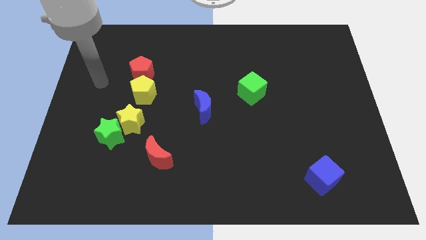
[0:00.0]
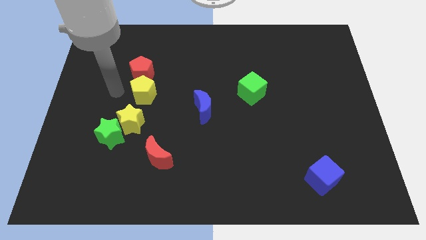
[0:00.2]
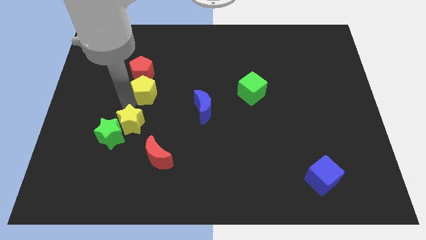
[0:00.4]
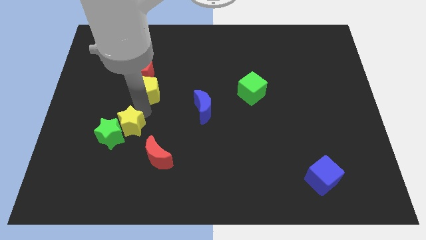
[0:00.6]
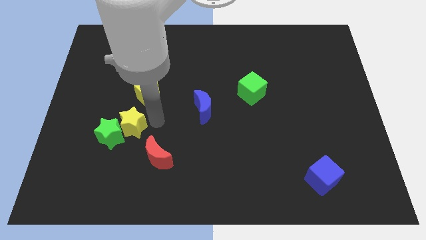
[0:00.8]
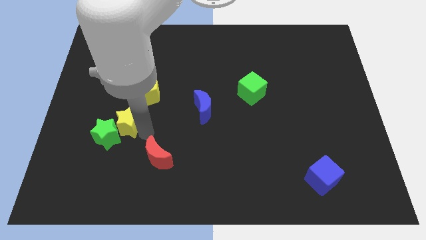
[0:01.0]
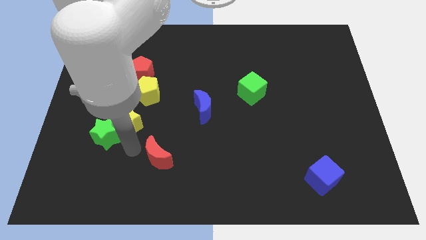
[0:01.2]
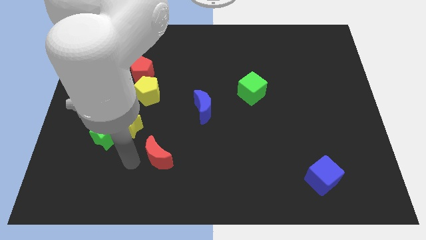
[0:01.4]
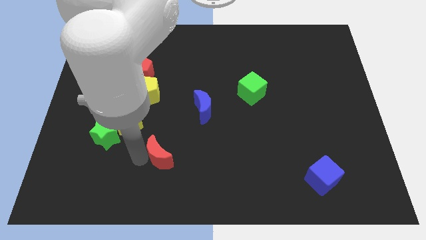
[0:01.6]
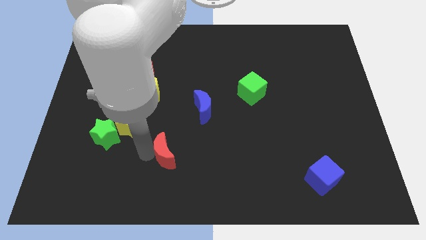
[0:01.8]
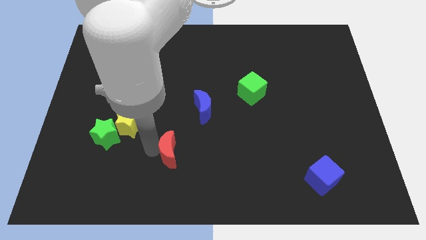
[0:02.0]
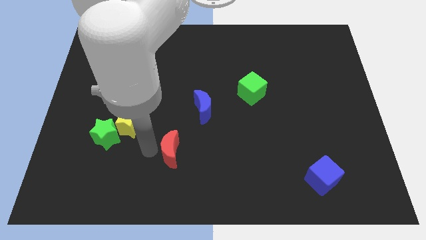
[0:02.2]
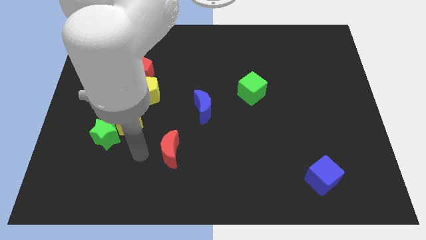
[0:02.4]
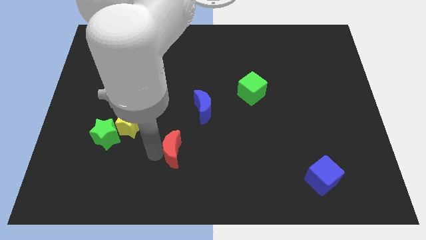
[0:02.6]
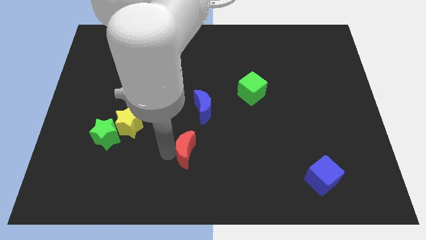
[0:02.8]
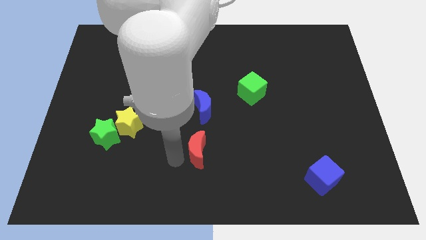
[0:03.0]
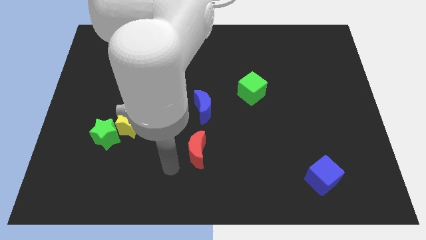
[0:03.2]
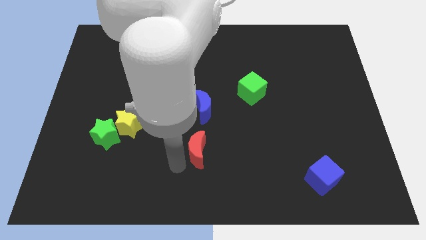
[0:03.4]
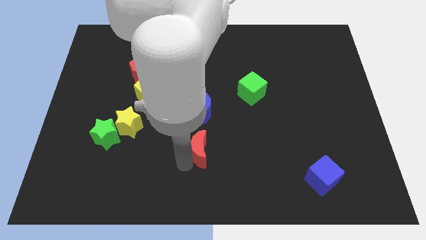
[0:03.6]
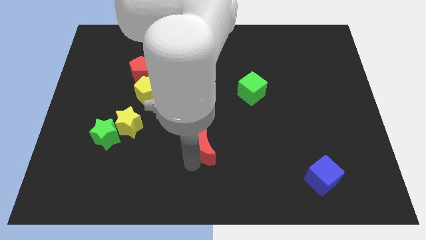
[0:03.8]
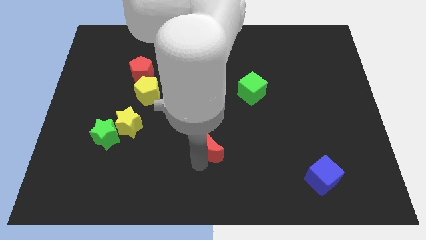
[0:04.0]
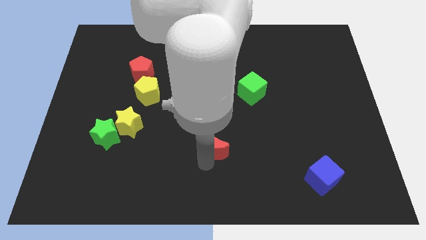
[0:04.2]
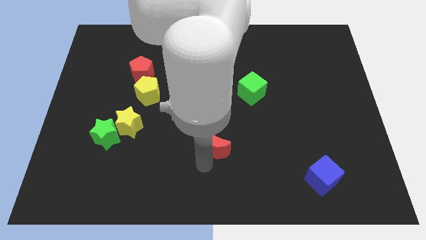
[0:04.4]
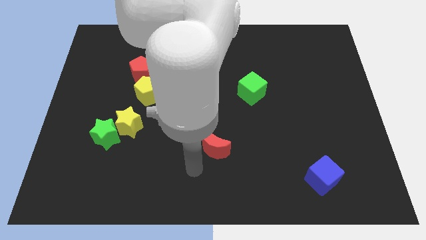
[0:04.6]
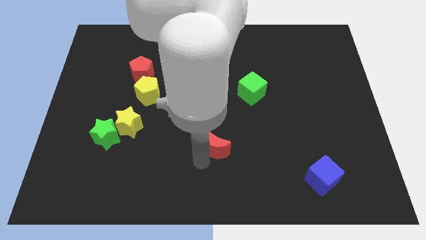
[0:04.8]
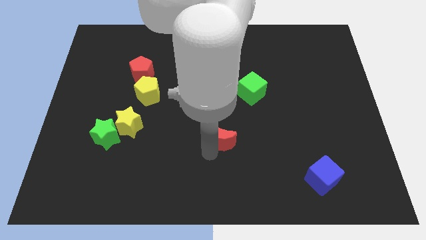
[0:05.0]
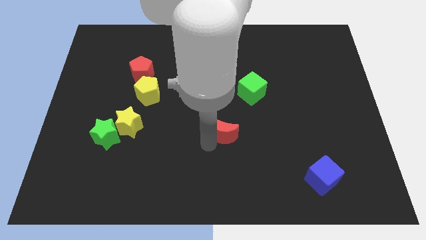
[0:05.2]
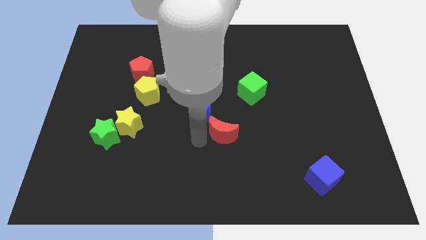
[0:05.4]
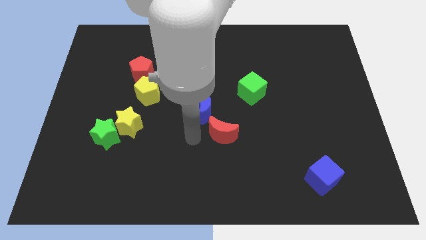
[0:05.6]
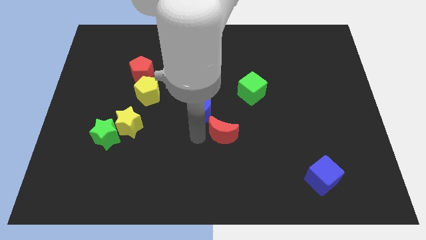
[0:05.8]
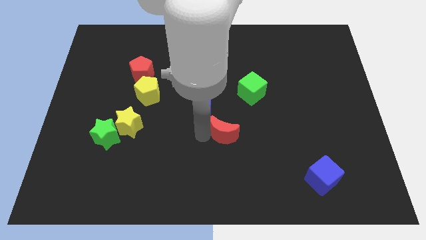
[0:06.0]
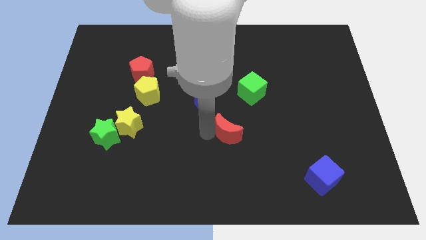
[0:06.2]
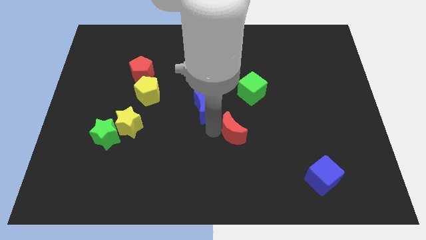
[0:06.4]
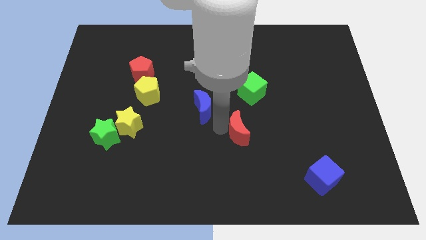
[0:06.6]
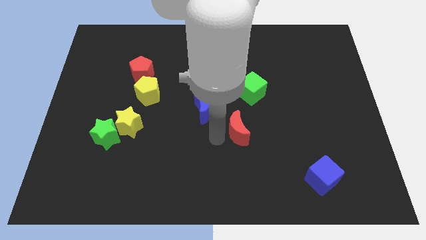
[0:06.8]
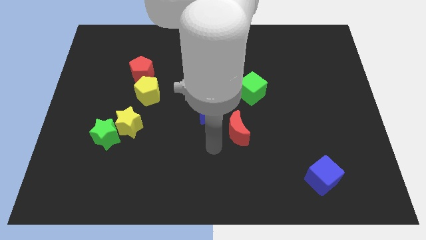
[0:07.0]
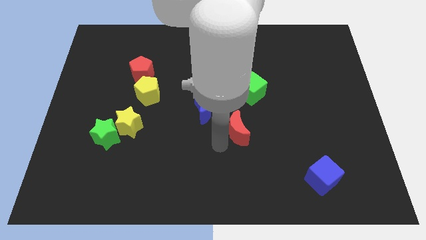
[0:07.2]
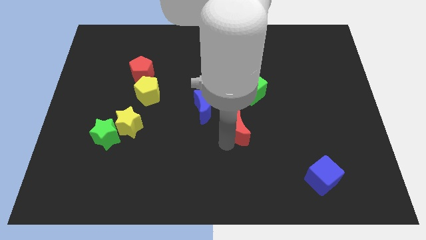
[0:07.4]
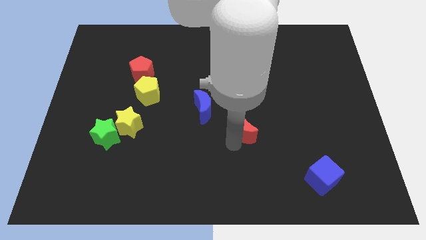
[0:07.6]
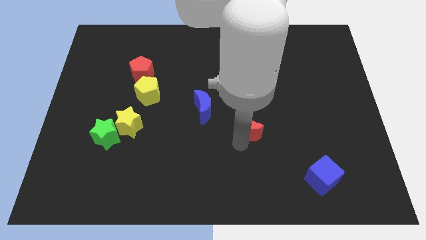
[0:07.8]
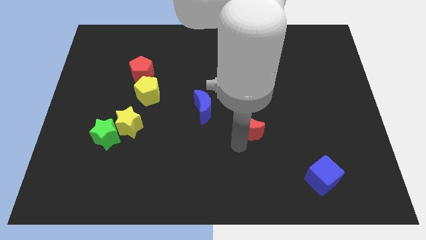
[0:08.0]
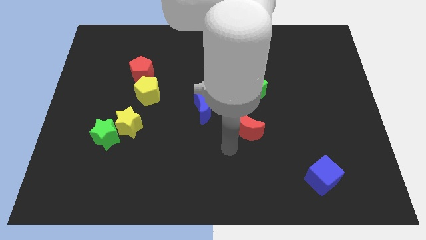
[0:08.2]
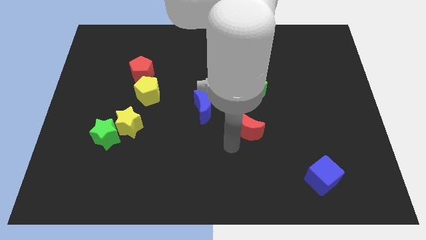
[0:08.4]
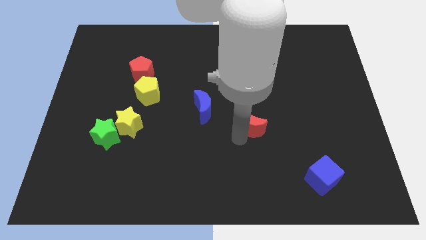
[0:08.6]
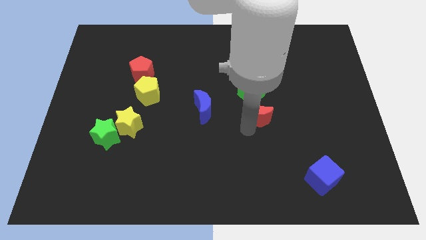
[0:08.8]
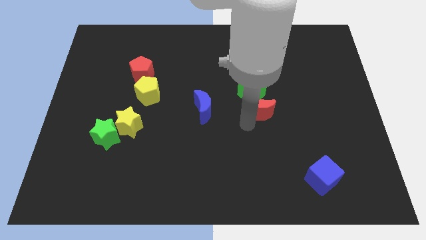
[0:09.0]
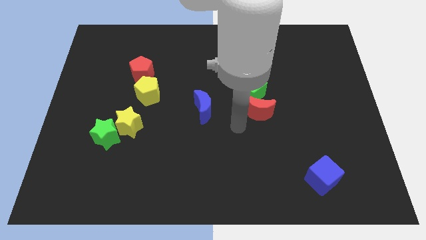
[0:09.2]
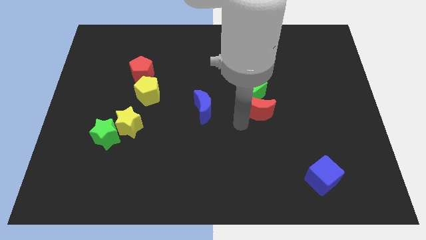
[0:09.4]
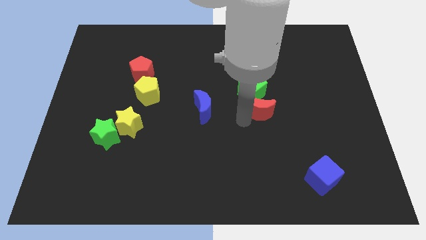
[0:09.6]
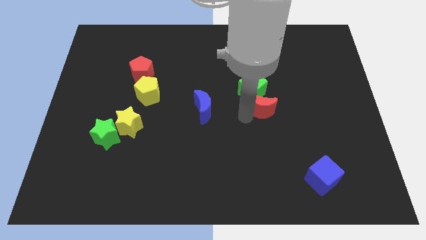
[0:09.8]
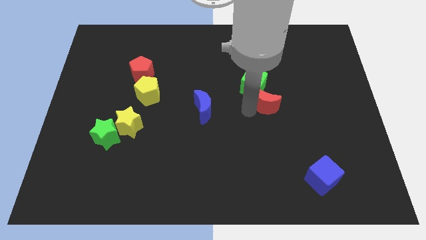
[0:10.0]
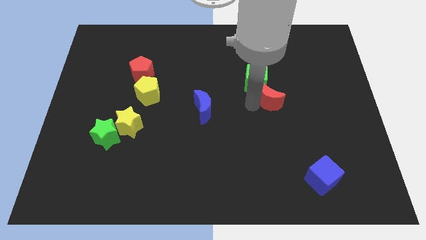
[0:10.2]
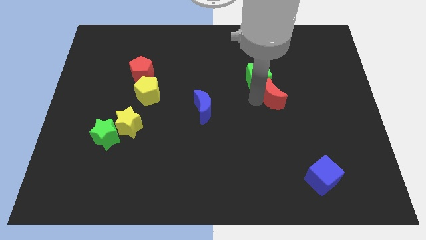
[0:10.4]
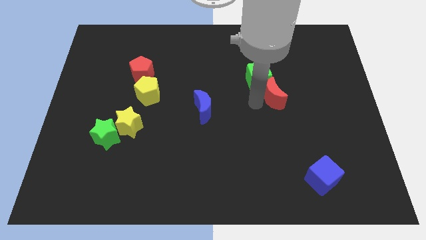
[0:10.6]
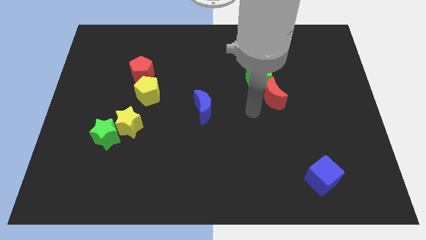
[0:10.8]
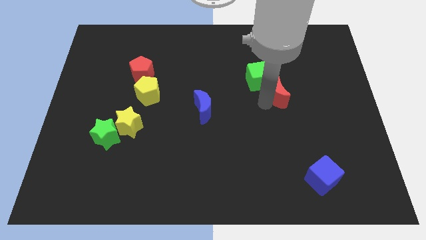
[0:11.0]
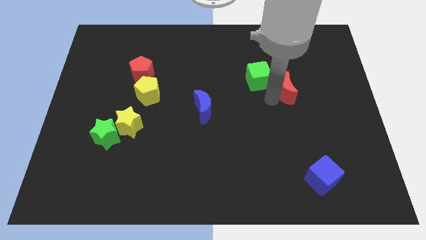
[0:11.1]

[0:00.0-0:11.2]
push the red moon to the right of the green cube

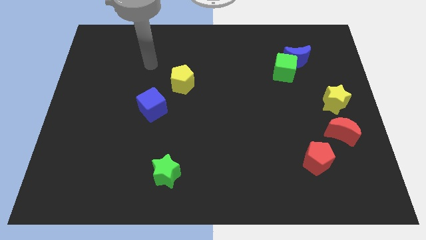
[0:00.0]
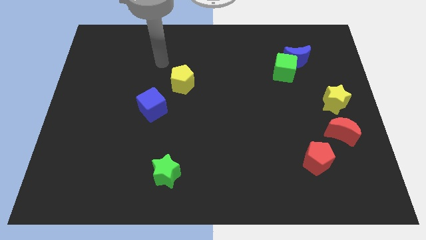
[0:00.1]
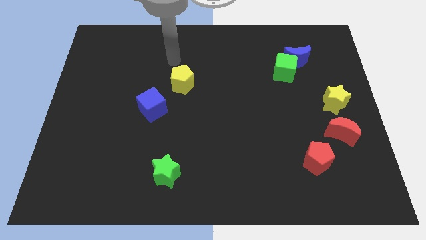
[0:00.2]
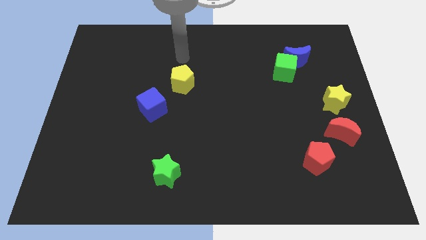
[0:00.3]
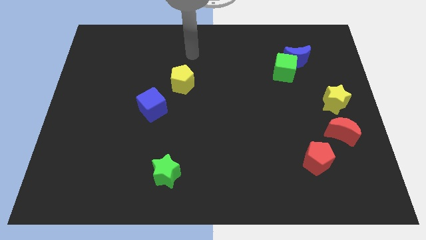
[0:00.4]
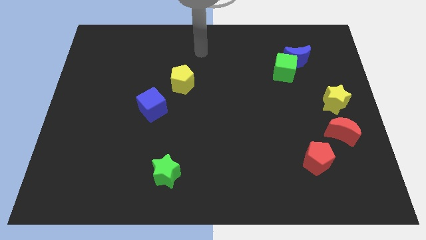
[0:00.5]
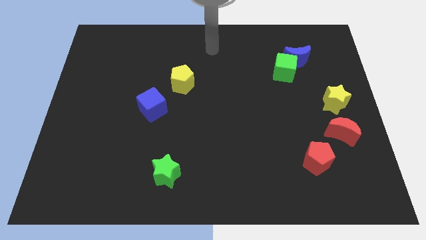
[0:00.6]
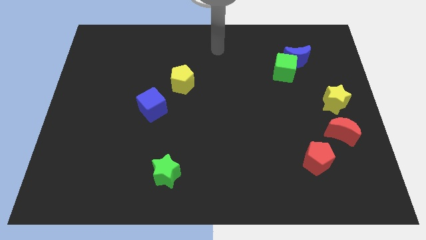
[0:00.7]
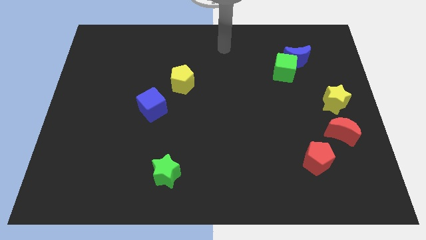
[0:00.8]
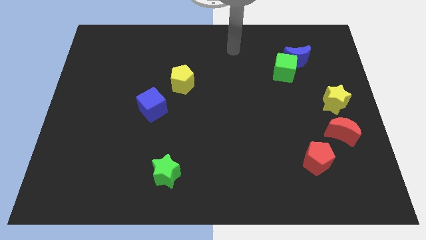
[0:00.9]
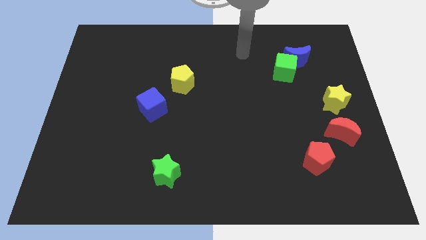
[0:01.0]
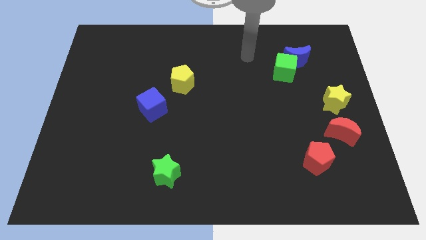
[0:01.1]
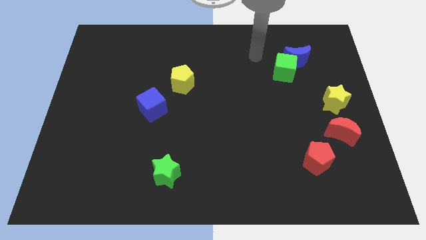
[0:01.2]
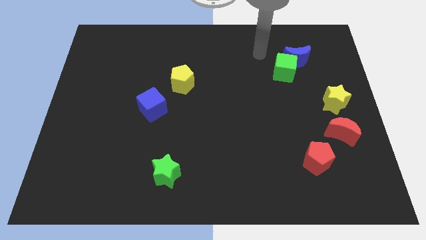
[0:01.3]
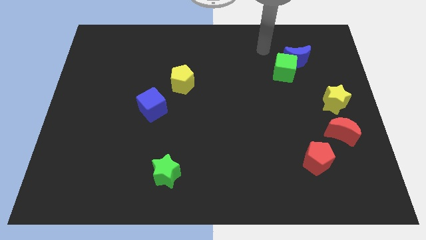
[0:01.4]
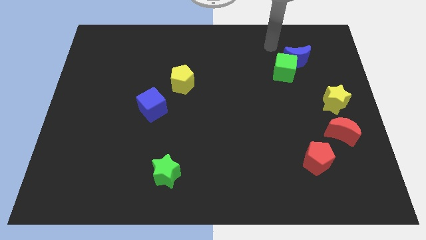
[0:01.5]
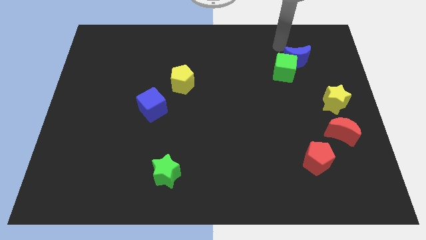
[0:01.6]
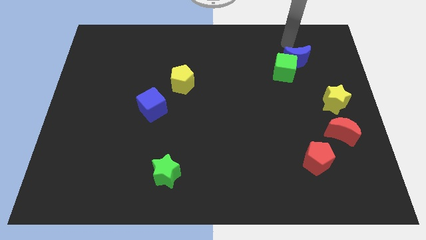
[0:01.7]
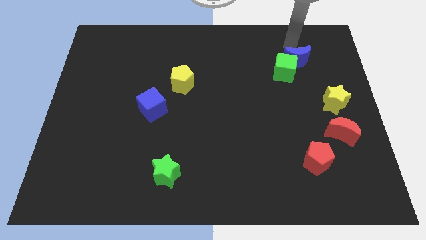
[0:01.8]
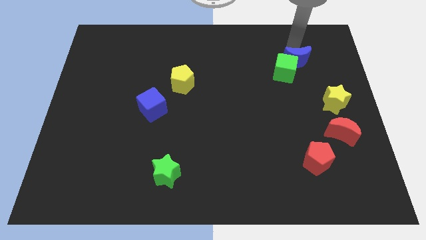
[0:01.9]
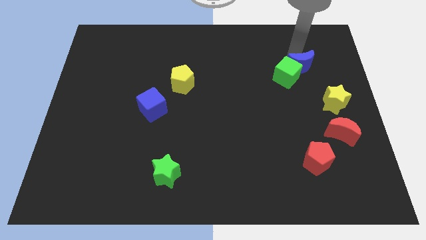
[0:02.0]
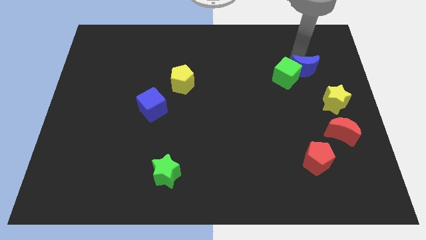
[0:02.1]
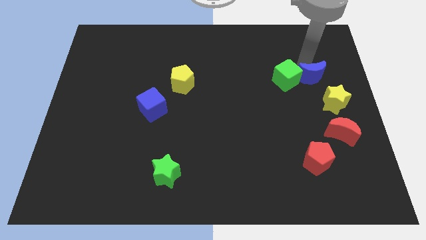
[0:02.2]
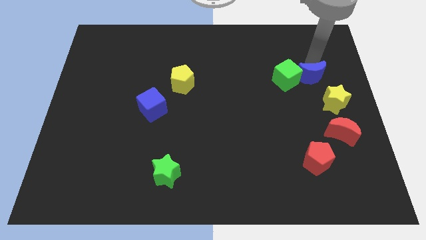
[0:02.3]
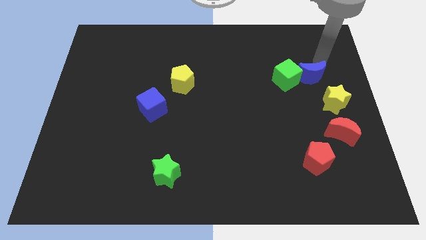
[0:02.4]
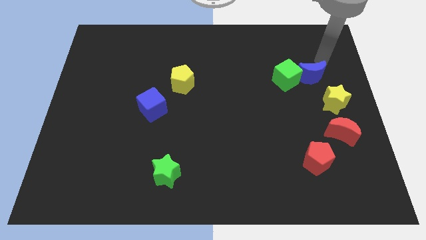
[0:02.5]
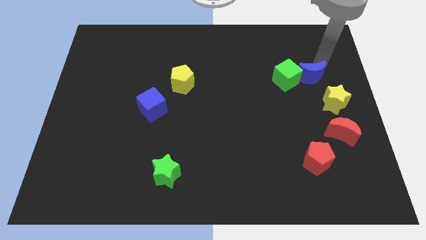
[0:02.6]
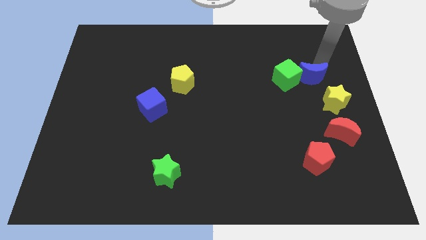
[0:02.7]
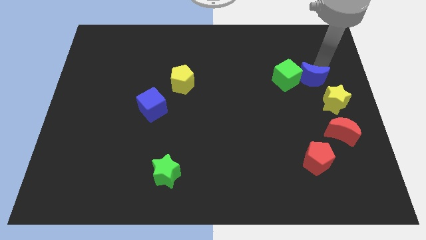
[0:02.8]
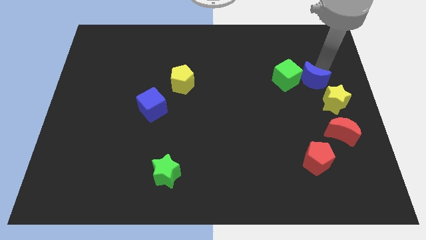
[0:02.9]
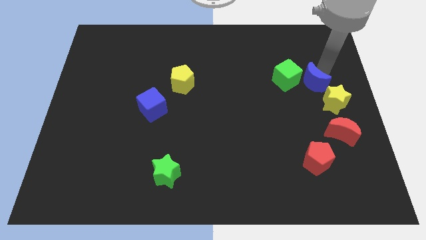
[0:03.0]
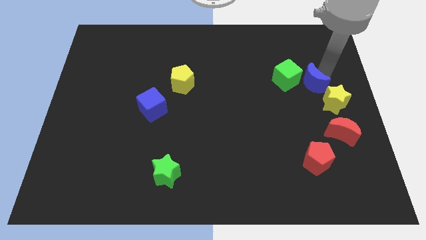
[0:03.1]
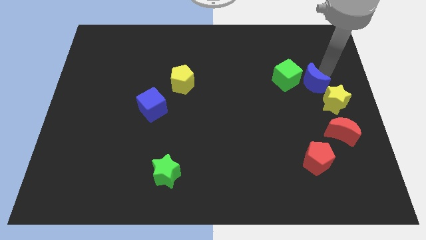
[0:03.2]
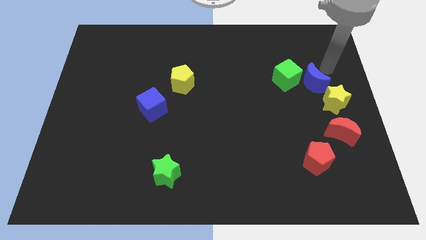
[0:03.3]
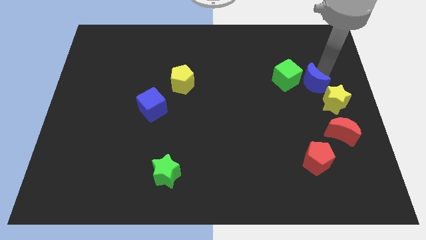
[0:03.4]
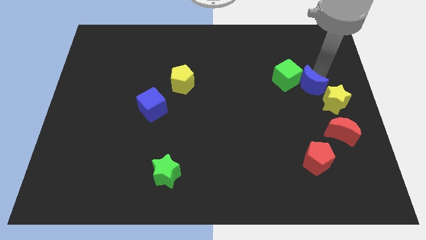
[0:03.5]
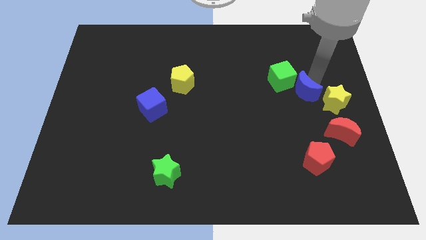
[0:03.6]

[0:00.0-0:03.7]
slide the blue moon left of the yellow star
